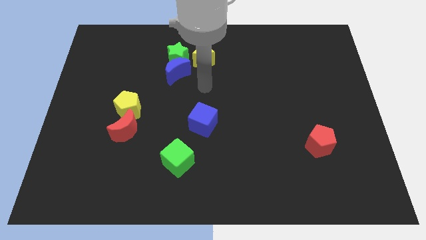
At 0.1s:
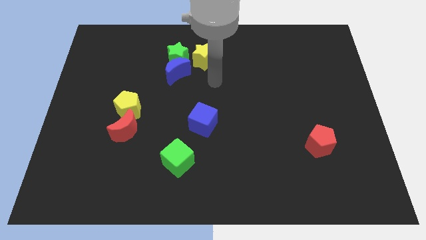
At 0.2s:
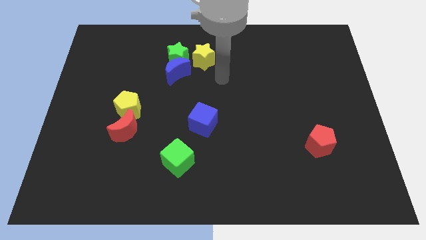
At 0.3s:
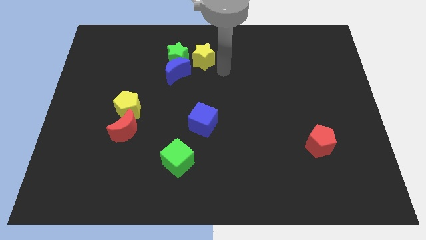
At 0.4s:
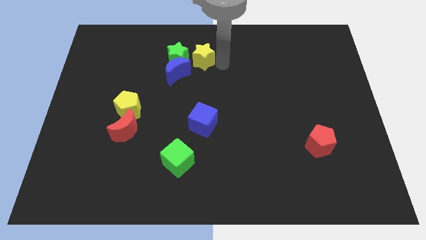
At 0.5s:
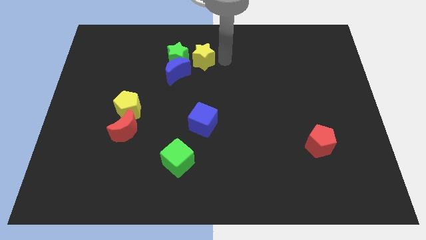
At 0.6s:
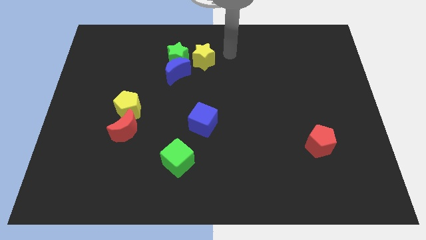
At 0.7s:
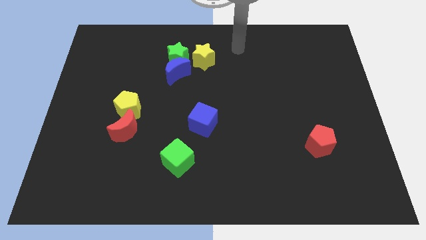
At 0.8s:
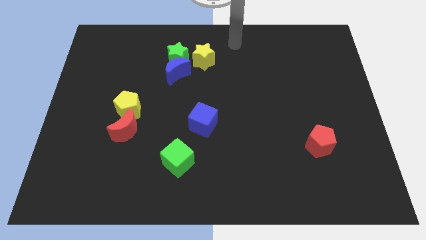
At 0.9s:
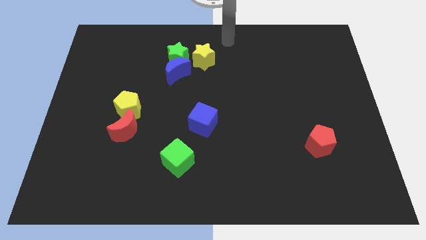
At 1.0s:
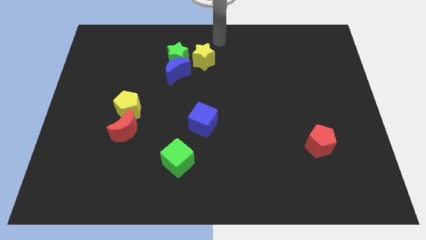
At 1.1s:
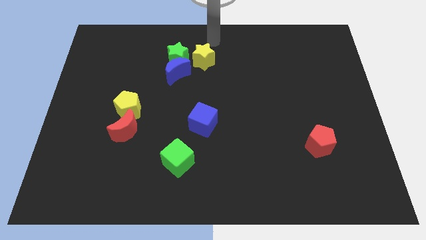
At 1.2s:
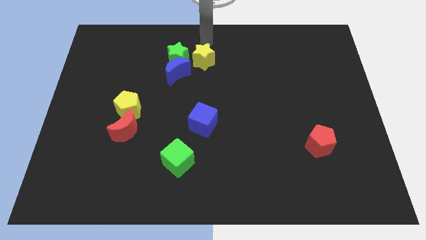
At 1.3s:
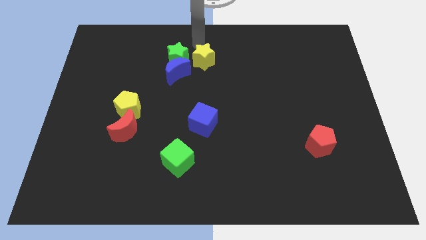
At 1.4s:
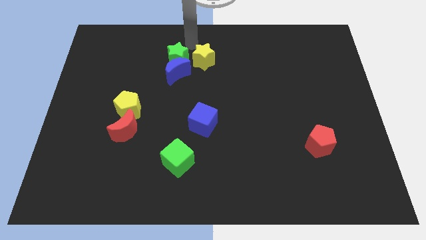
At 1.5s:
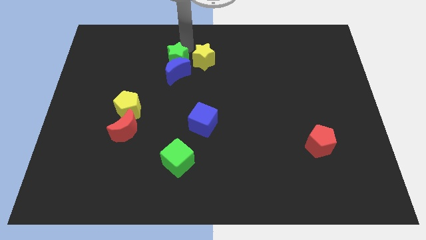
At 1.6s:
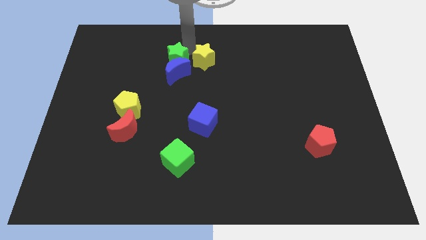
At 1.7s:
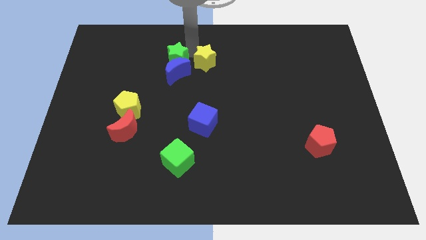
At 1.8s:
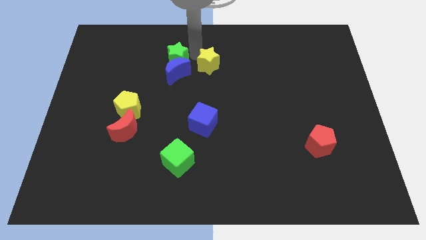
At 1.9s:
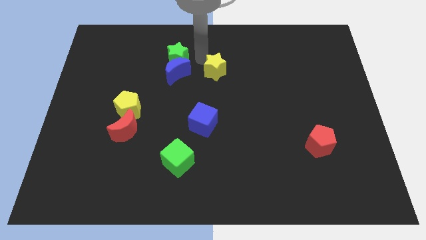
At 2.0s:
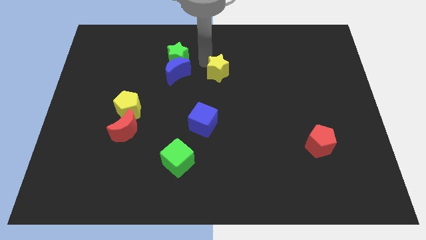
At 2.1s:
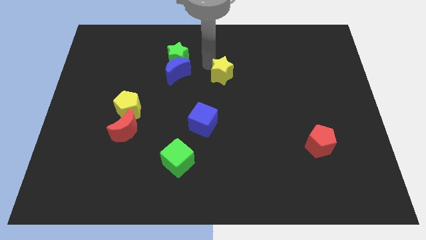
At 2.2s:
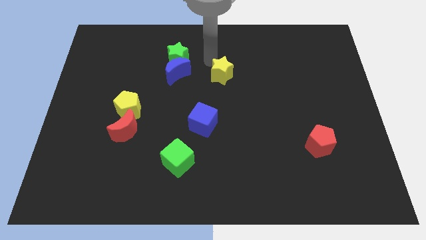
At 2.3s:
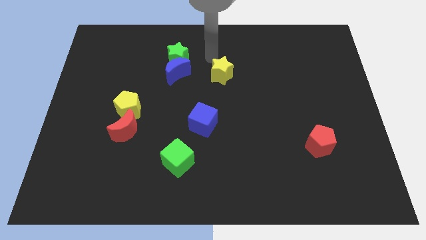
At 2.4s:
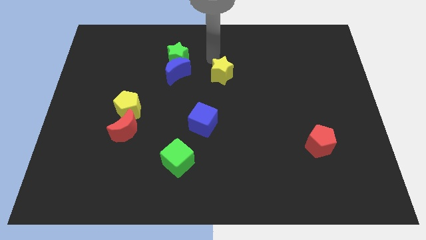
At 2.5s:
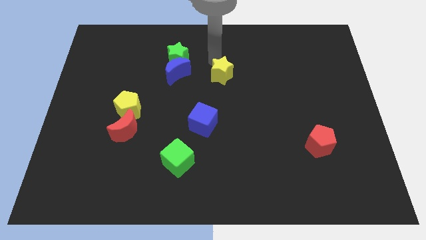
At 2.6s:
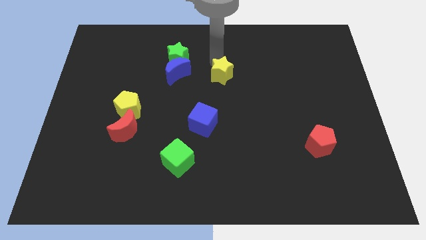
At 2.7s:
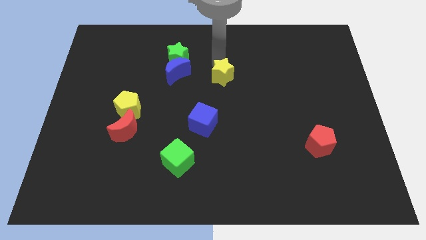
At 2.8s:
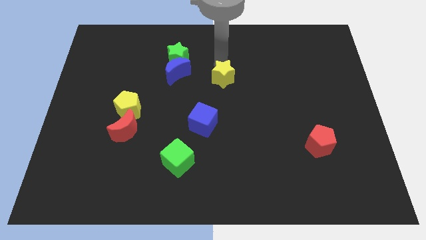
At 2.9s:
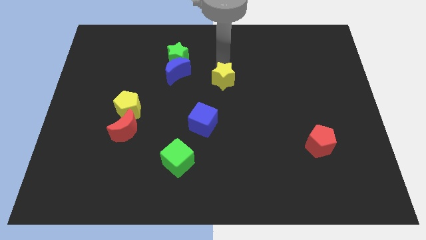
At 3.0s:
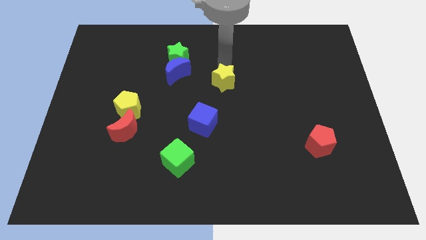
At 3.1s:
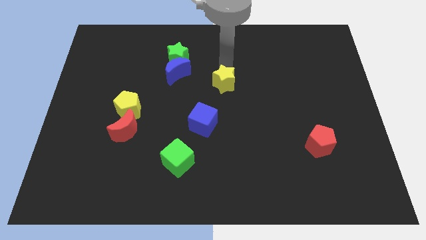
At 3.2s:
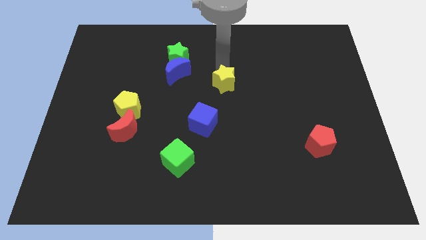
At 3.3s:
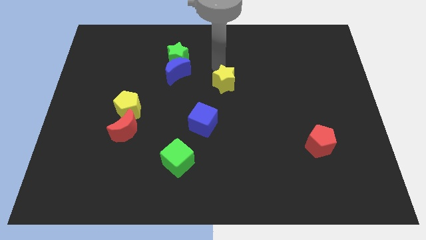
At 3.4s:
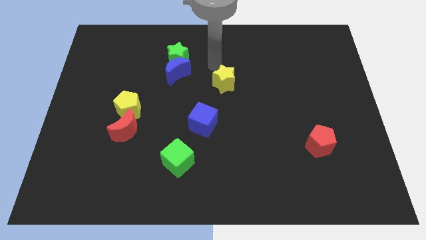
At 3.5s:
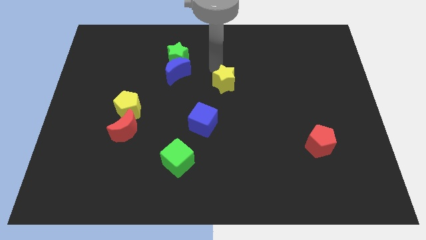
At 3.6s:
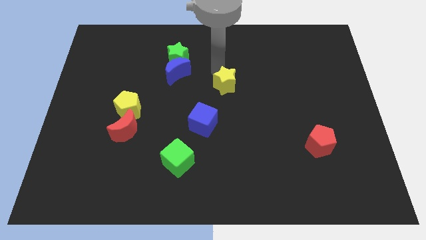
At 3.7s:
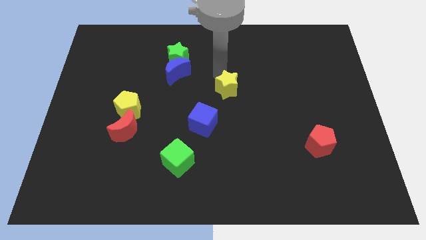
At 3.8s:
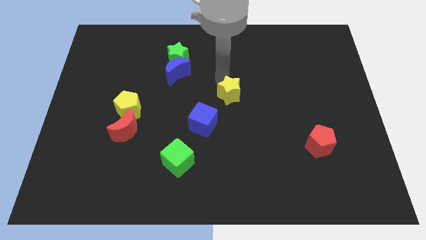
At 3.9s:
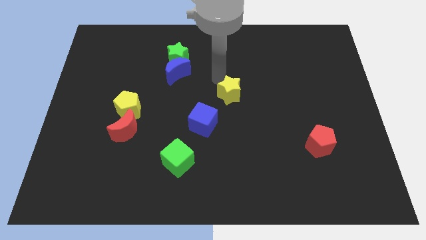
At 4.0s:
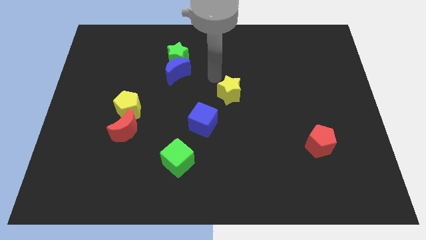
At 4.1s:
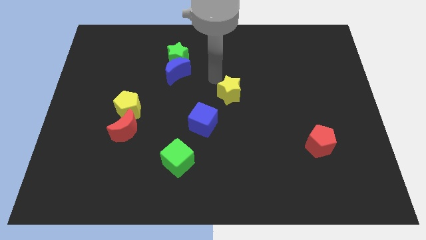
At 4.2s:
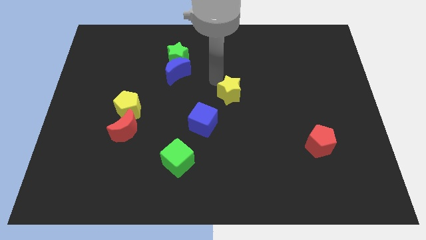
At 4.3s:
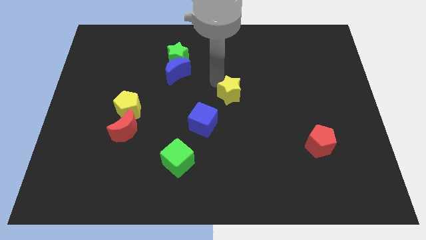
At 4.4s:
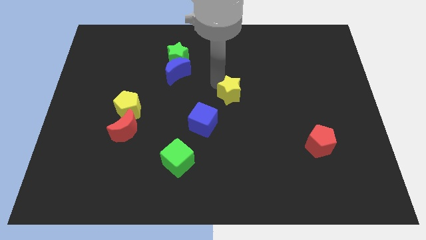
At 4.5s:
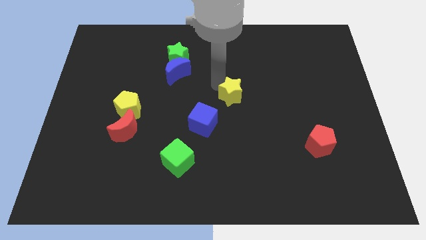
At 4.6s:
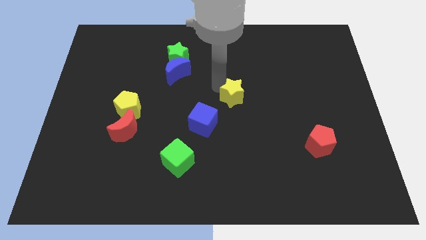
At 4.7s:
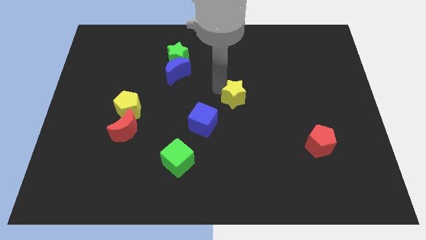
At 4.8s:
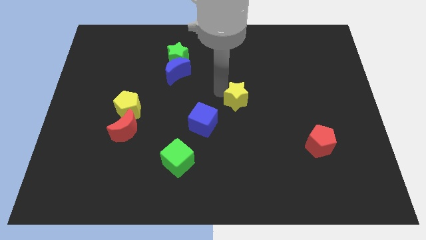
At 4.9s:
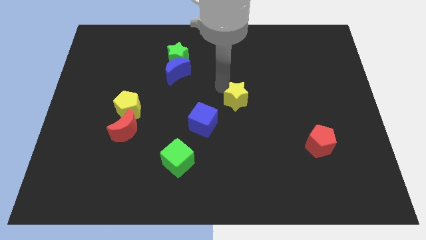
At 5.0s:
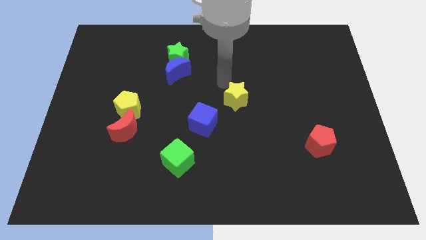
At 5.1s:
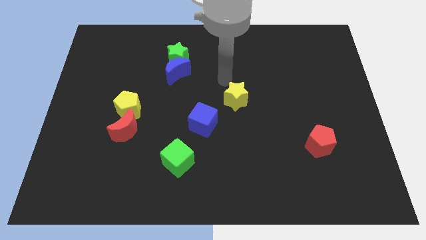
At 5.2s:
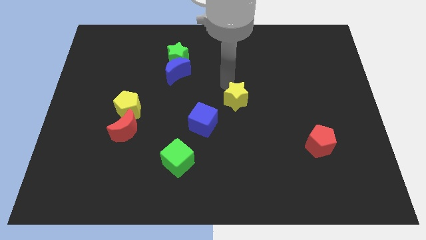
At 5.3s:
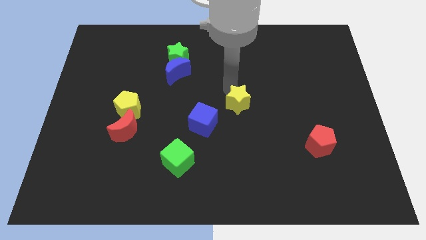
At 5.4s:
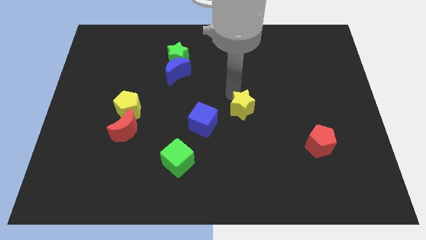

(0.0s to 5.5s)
push the yellow star to the right of the blue cube
